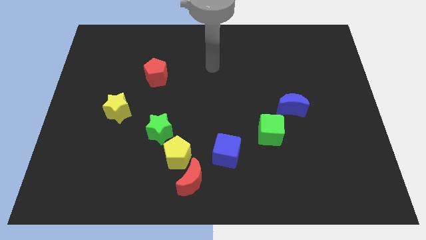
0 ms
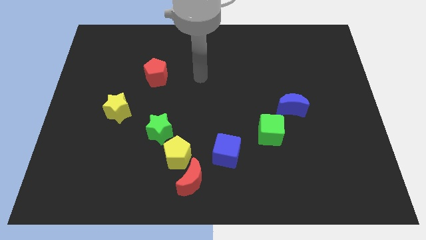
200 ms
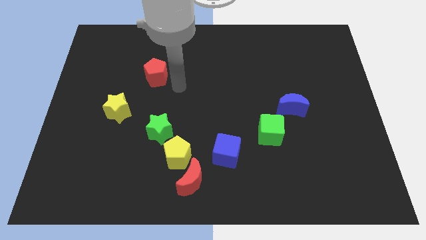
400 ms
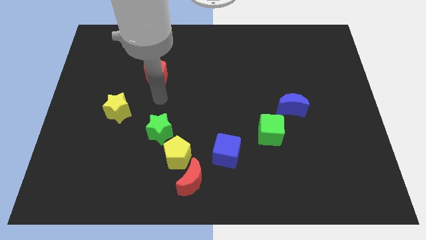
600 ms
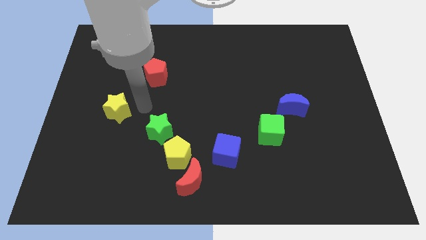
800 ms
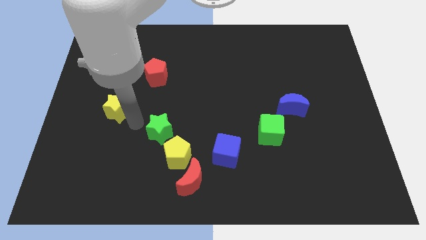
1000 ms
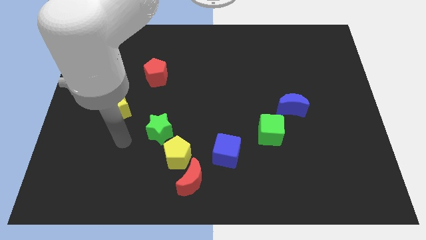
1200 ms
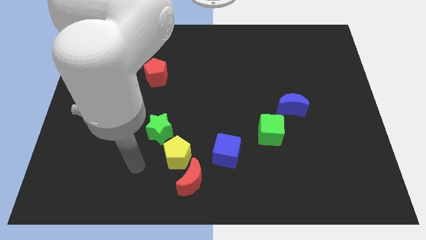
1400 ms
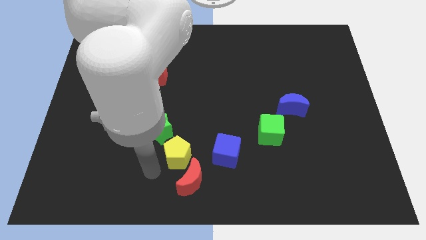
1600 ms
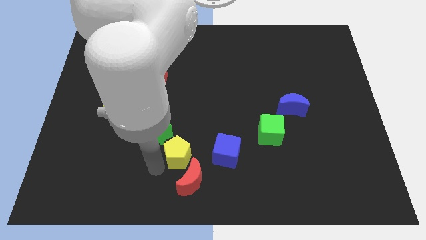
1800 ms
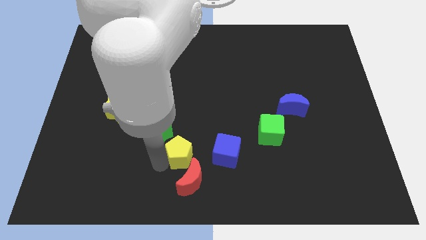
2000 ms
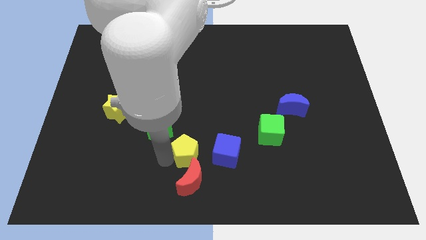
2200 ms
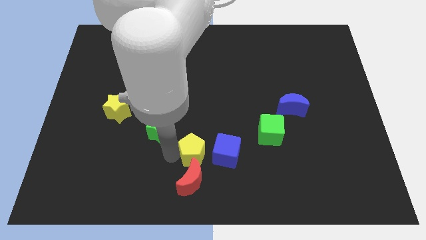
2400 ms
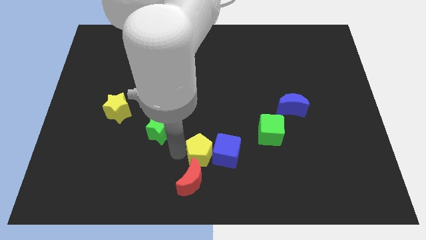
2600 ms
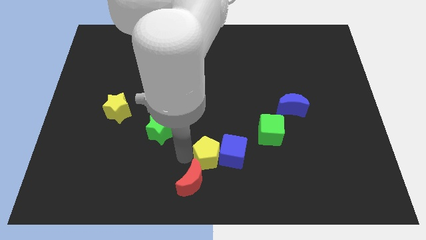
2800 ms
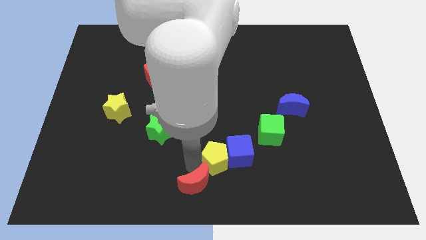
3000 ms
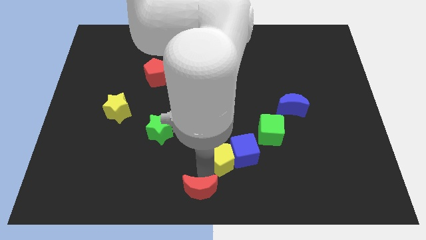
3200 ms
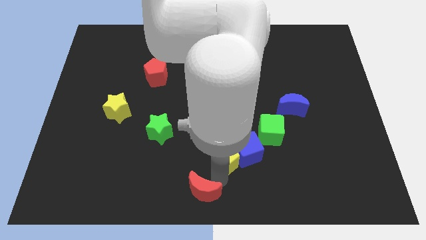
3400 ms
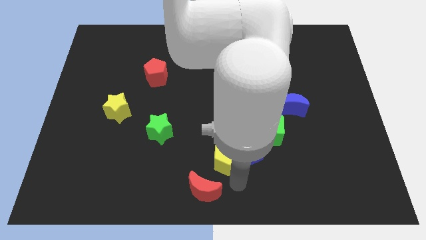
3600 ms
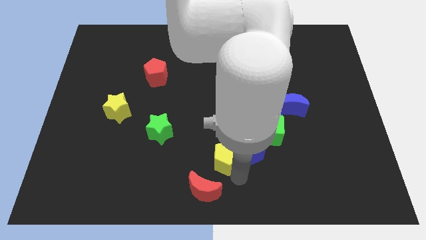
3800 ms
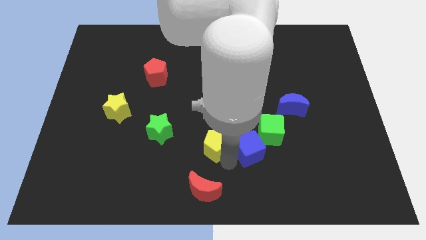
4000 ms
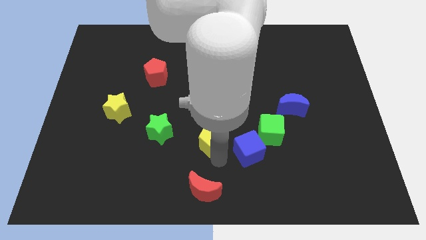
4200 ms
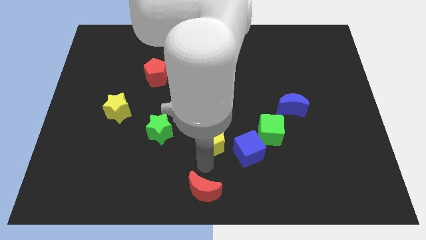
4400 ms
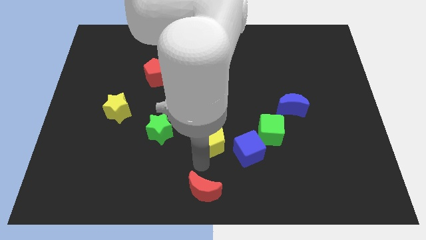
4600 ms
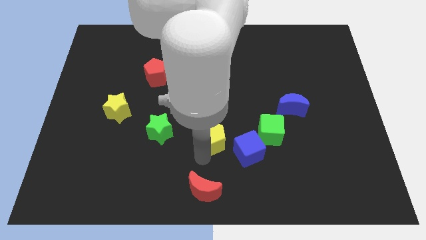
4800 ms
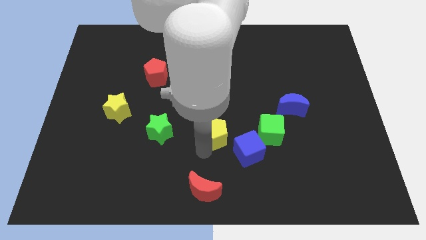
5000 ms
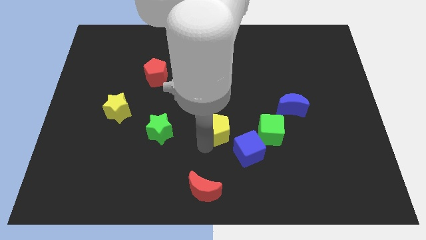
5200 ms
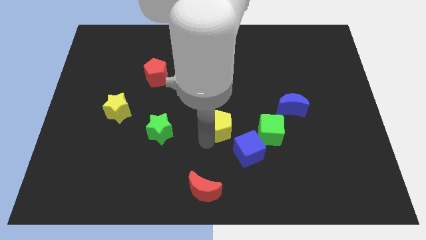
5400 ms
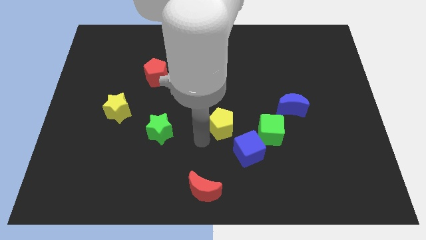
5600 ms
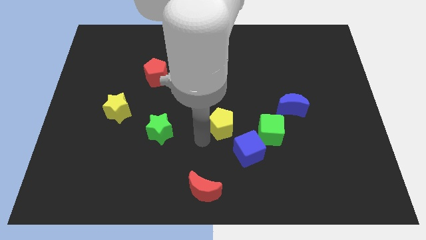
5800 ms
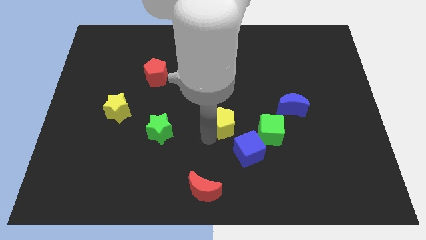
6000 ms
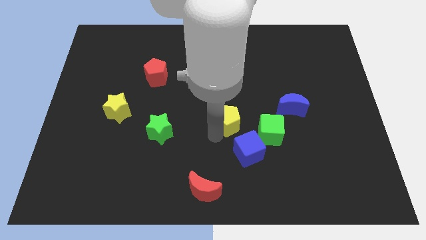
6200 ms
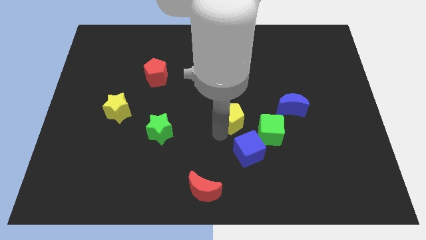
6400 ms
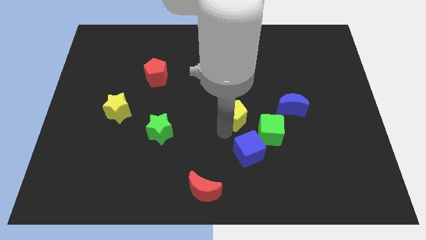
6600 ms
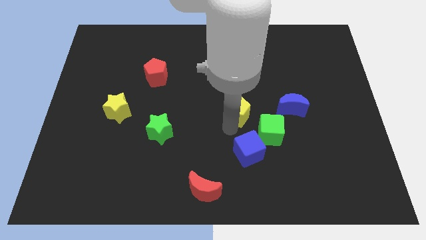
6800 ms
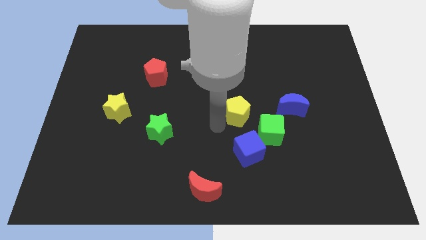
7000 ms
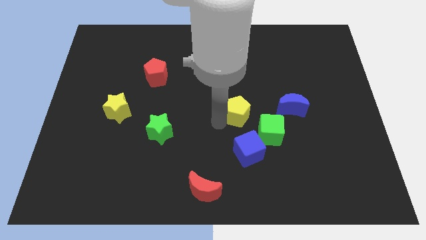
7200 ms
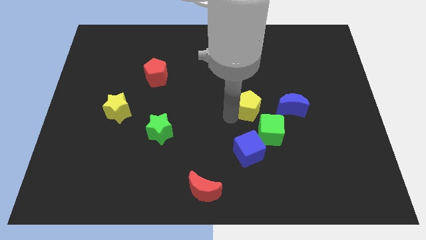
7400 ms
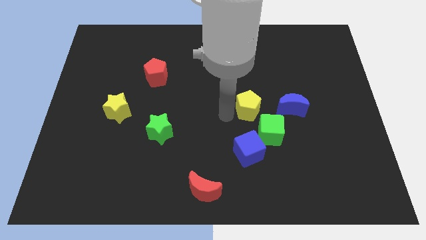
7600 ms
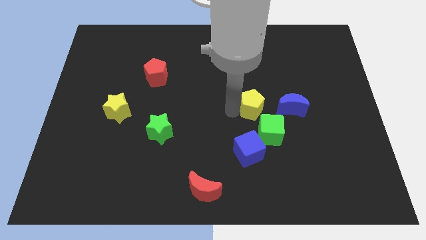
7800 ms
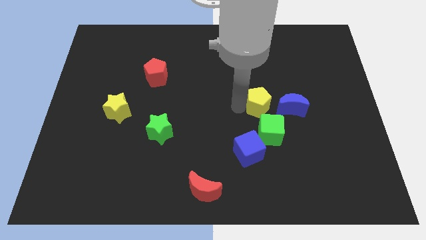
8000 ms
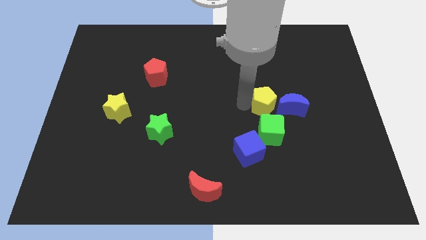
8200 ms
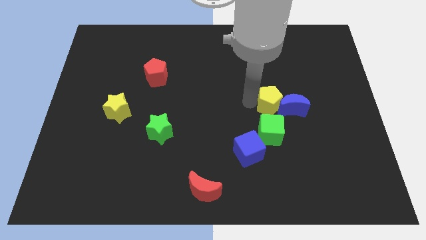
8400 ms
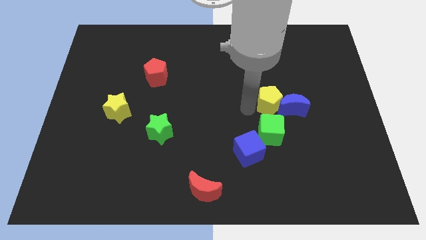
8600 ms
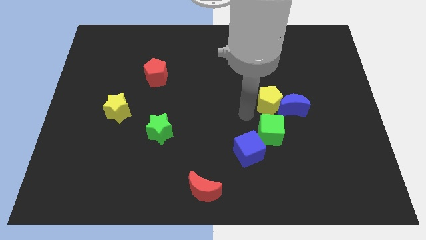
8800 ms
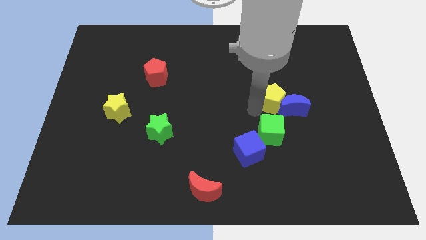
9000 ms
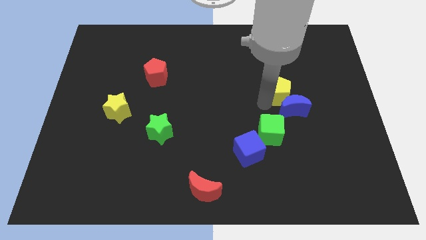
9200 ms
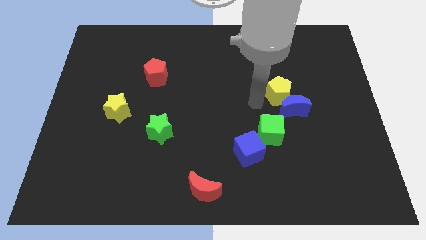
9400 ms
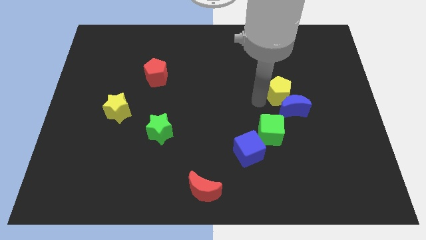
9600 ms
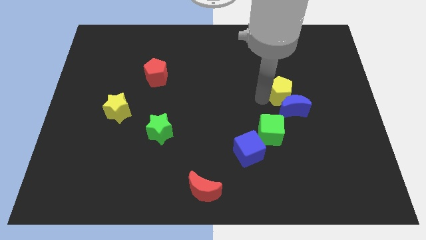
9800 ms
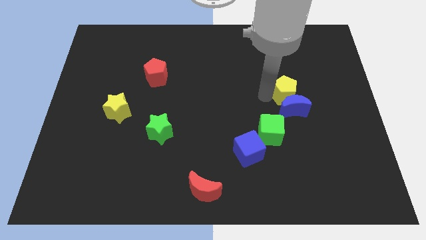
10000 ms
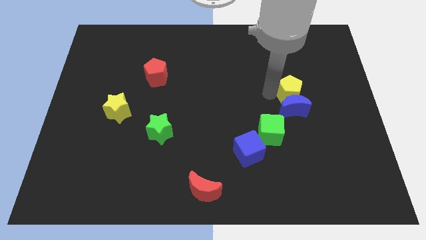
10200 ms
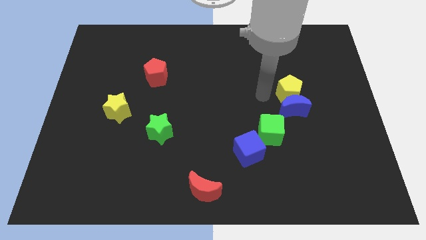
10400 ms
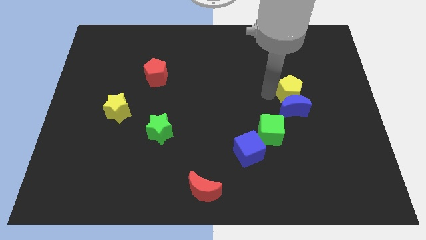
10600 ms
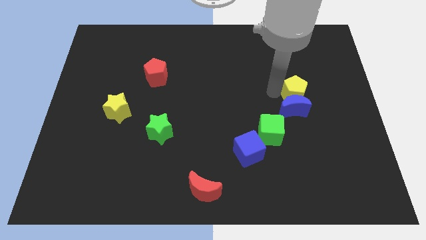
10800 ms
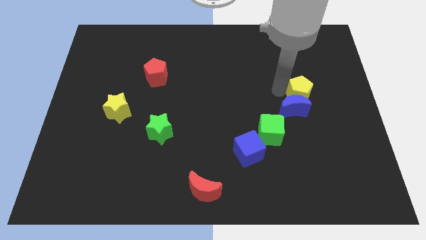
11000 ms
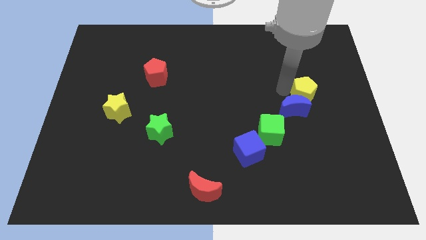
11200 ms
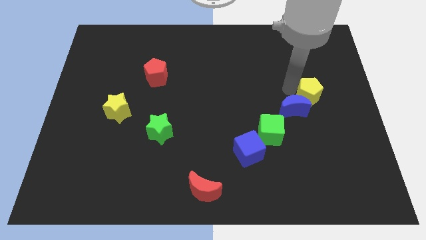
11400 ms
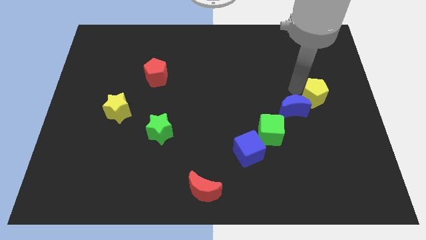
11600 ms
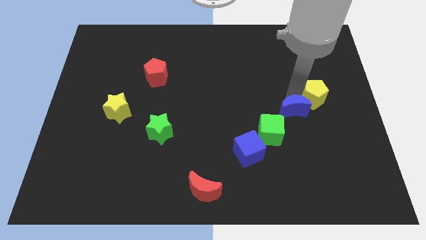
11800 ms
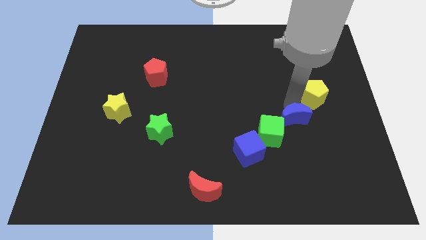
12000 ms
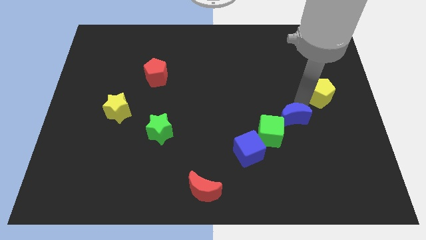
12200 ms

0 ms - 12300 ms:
move the yellow pentagon to the right side of the board
